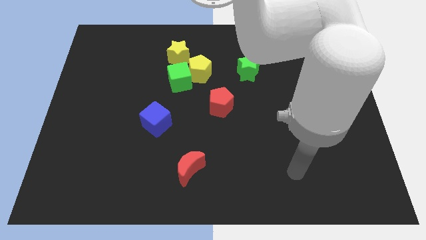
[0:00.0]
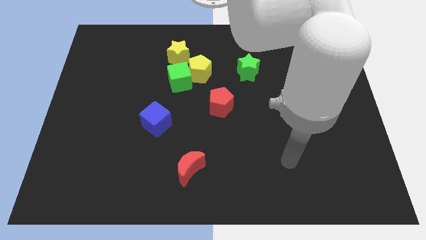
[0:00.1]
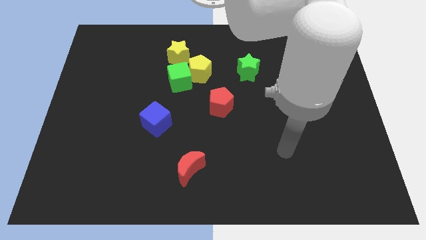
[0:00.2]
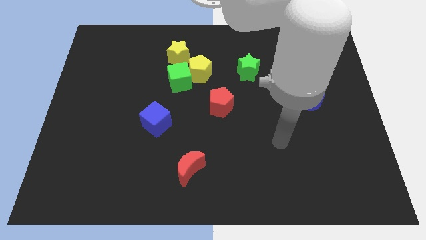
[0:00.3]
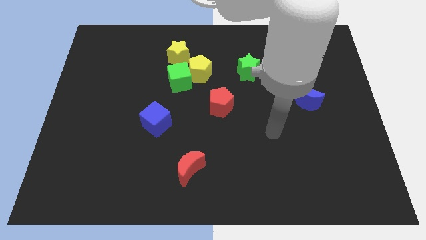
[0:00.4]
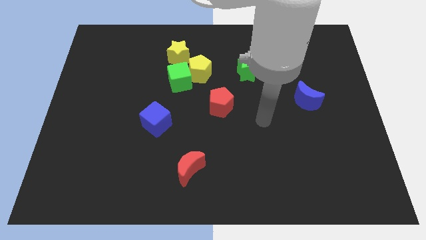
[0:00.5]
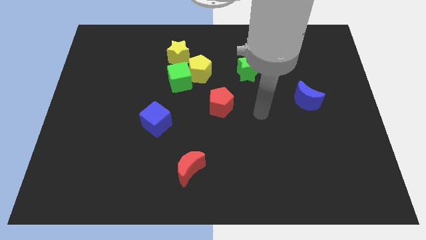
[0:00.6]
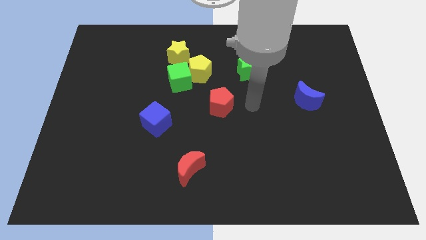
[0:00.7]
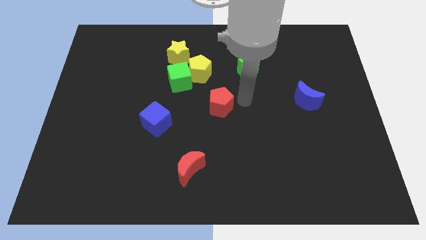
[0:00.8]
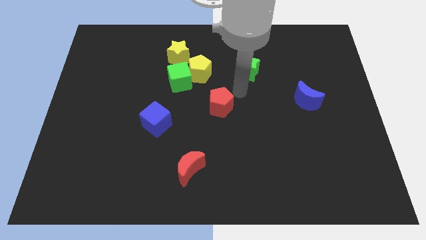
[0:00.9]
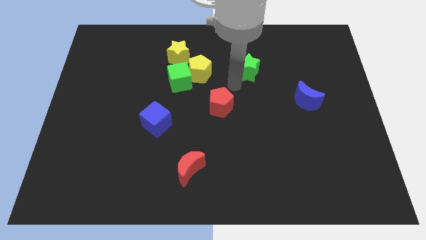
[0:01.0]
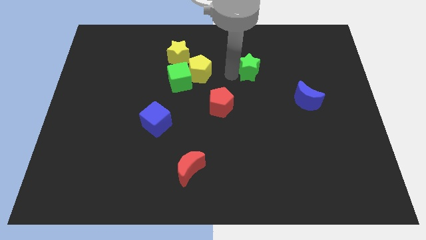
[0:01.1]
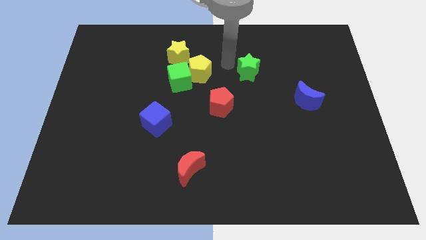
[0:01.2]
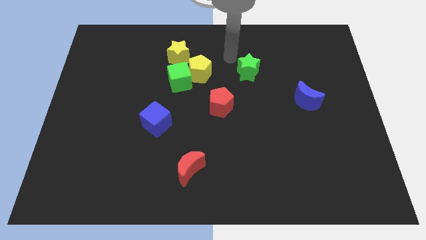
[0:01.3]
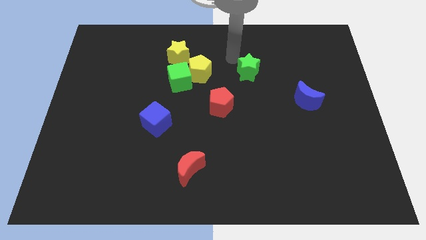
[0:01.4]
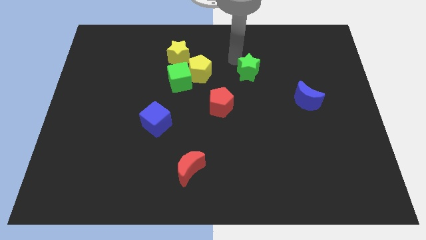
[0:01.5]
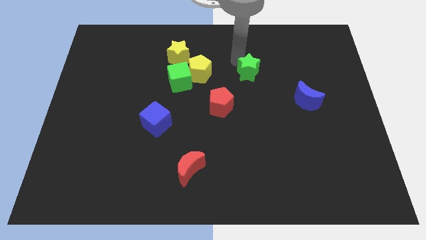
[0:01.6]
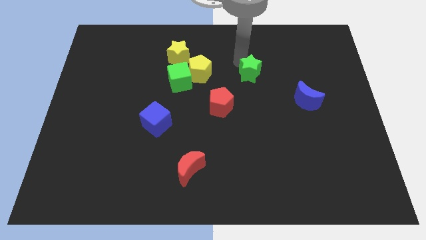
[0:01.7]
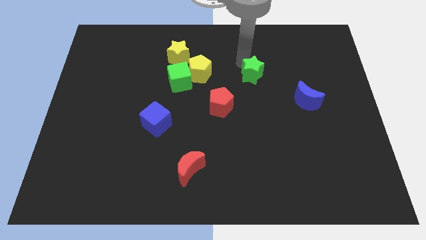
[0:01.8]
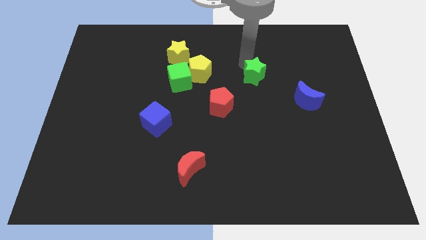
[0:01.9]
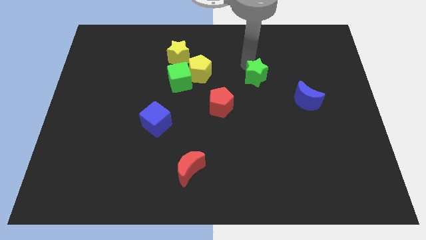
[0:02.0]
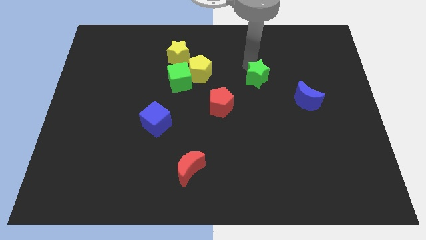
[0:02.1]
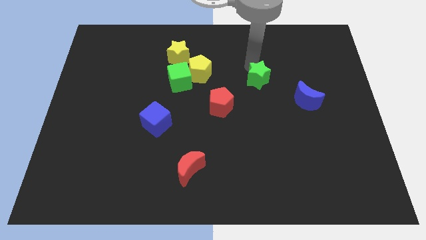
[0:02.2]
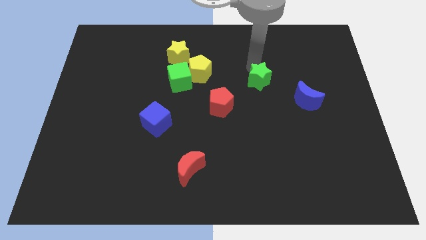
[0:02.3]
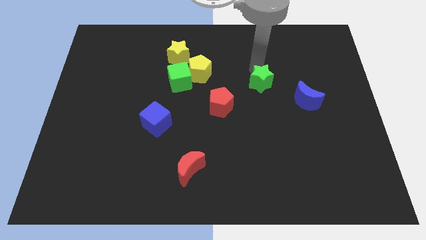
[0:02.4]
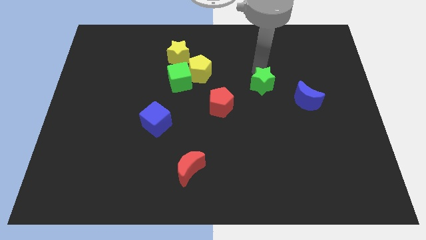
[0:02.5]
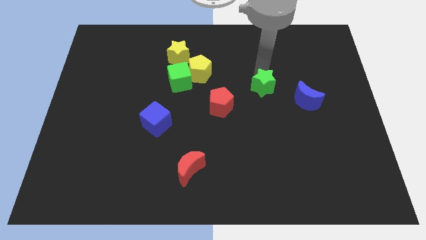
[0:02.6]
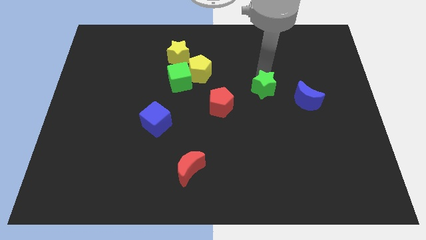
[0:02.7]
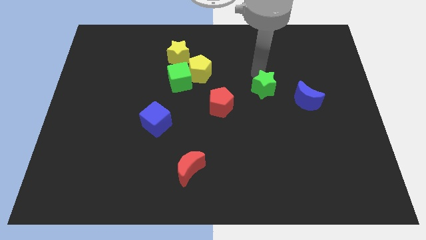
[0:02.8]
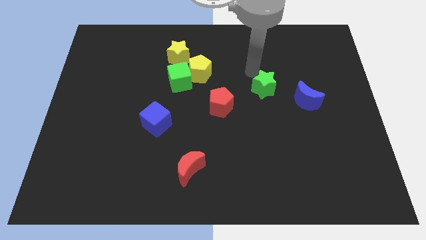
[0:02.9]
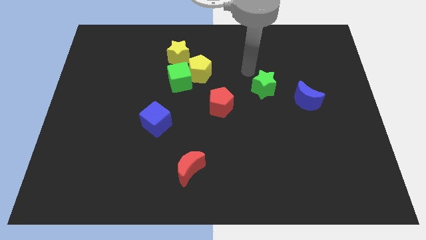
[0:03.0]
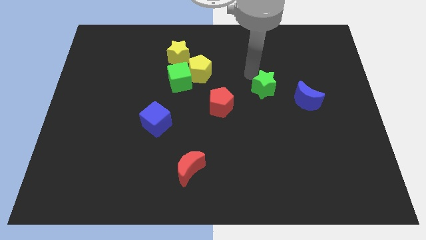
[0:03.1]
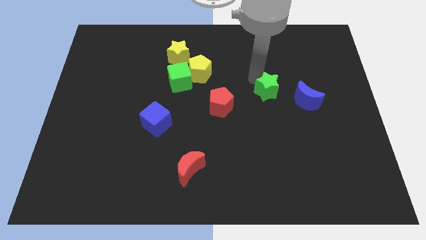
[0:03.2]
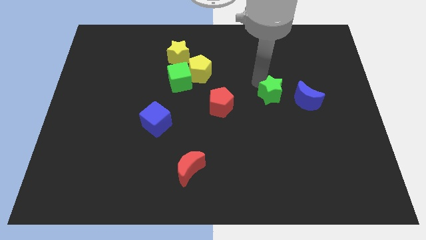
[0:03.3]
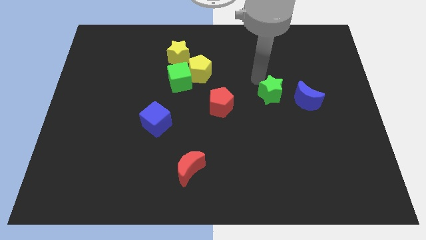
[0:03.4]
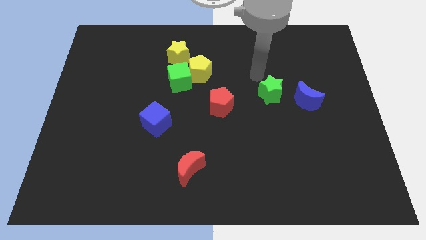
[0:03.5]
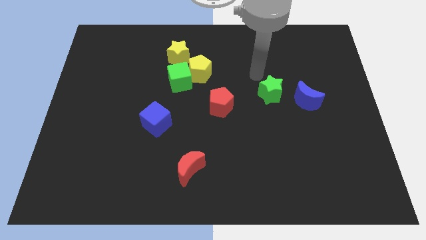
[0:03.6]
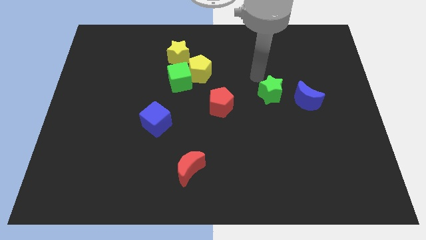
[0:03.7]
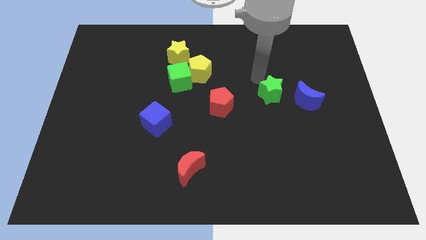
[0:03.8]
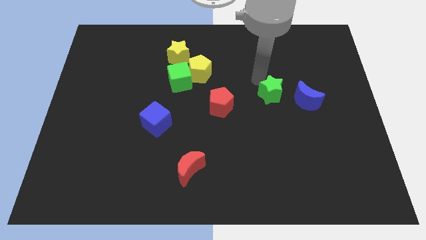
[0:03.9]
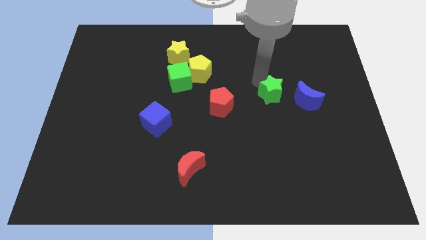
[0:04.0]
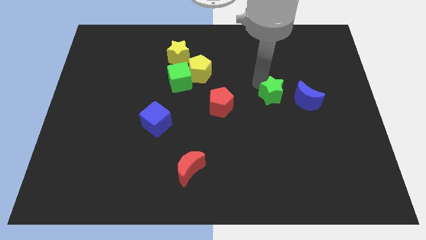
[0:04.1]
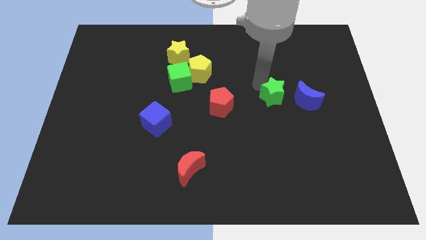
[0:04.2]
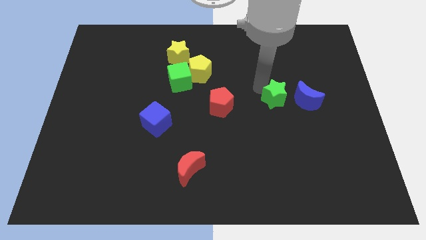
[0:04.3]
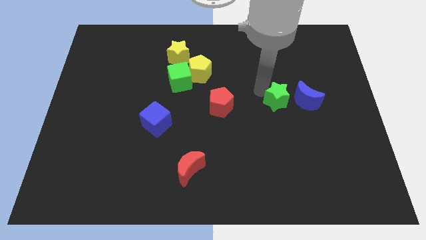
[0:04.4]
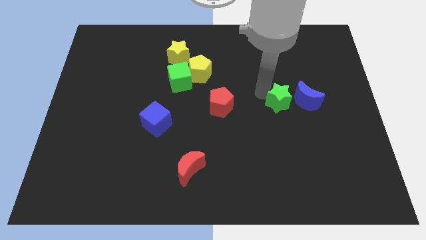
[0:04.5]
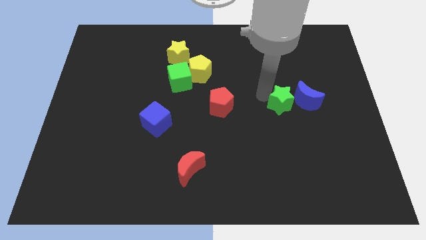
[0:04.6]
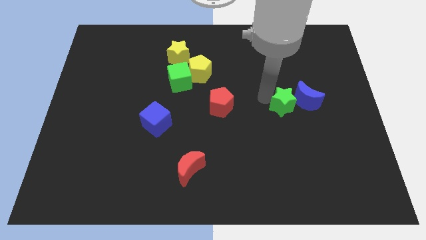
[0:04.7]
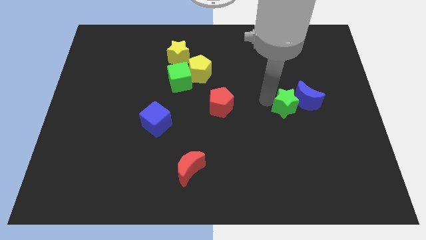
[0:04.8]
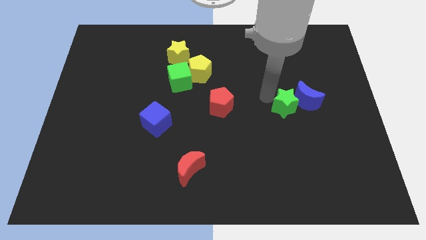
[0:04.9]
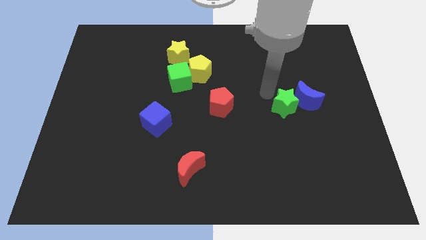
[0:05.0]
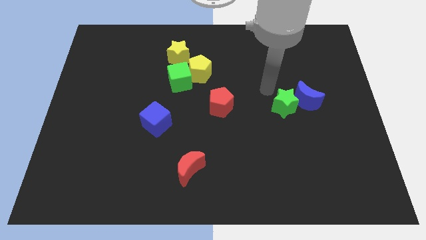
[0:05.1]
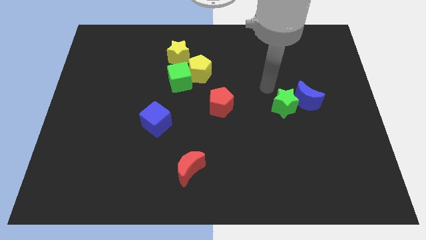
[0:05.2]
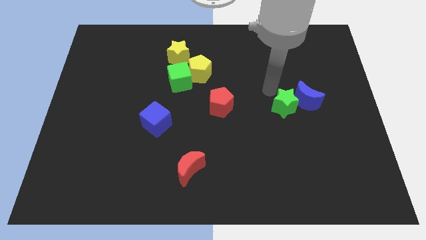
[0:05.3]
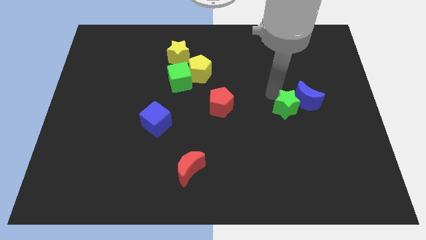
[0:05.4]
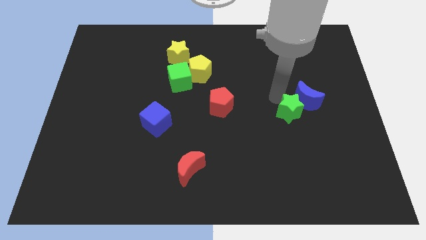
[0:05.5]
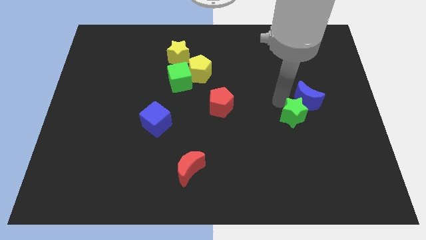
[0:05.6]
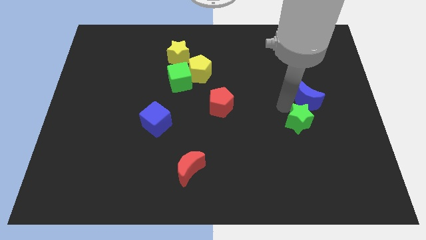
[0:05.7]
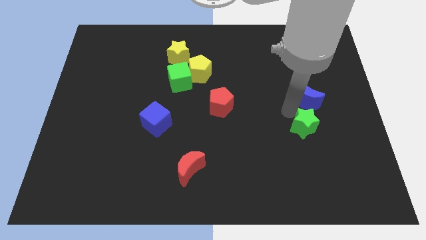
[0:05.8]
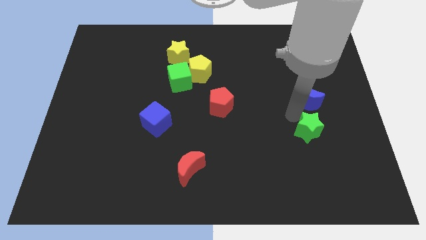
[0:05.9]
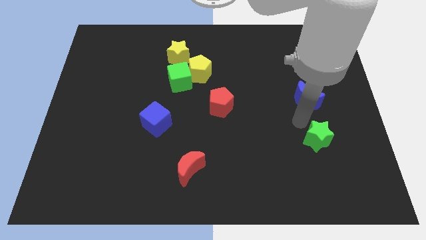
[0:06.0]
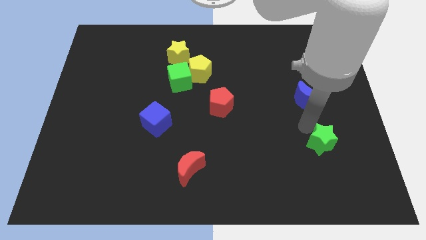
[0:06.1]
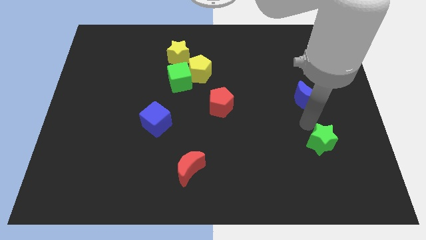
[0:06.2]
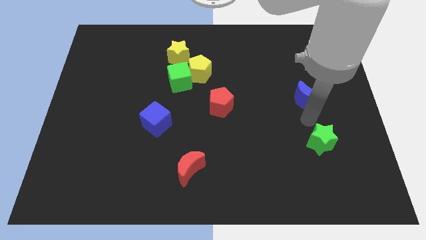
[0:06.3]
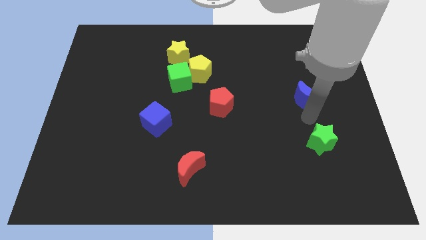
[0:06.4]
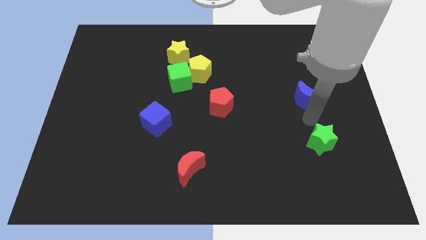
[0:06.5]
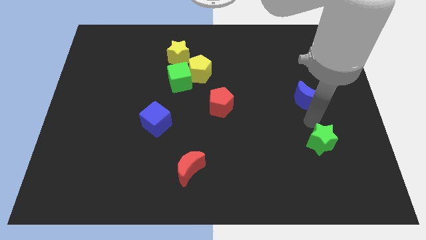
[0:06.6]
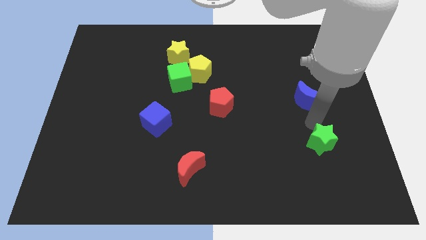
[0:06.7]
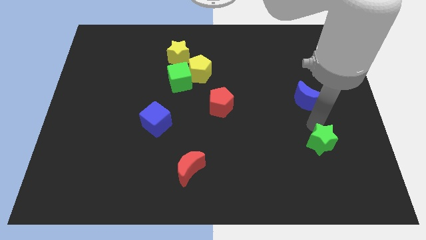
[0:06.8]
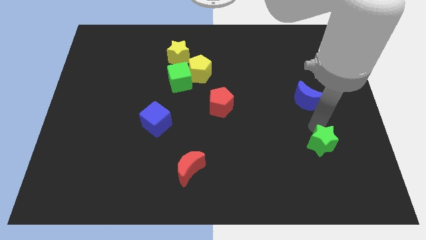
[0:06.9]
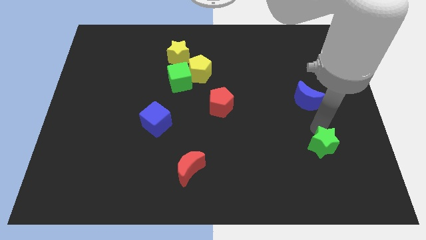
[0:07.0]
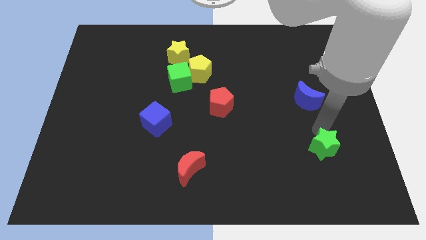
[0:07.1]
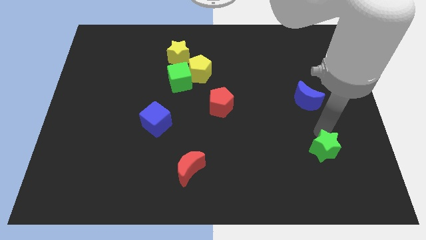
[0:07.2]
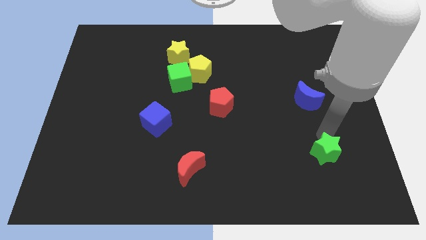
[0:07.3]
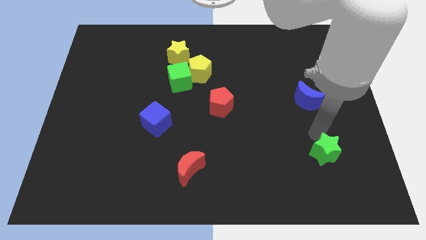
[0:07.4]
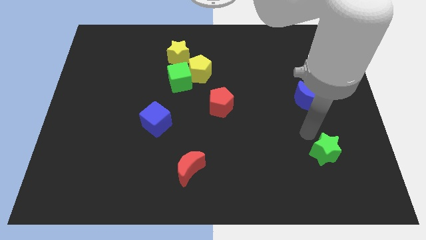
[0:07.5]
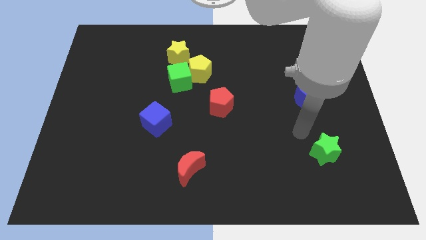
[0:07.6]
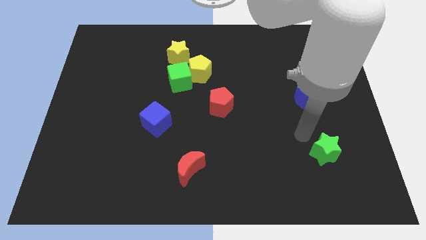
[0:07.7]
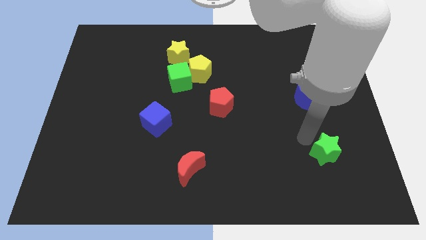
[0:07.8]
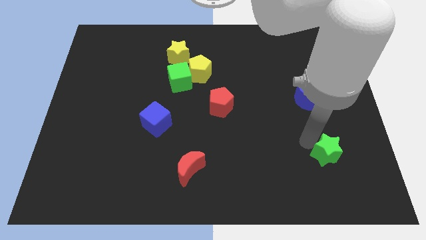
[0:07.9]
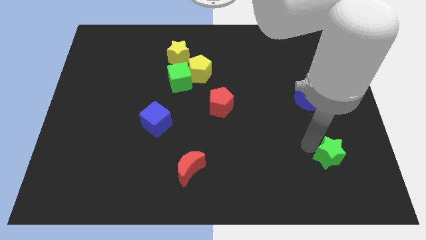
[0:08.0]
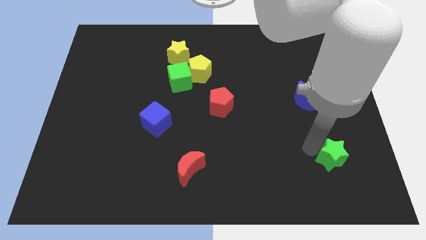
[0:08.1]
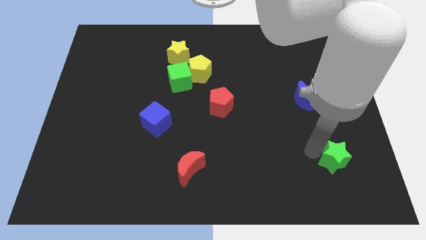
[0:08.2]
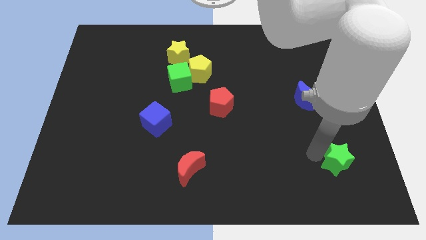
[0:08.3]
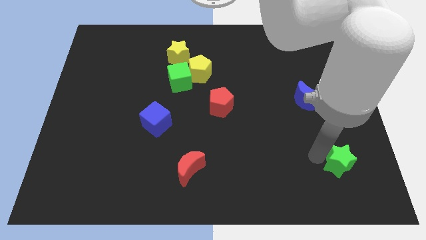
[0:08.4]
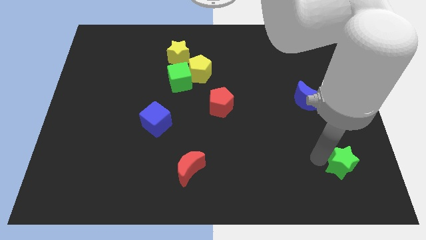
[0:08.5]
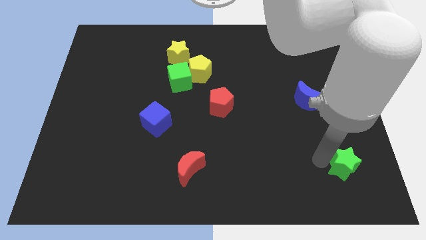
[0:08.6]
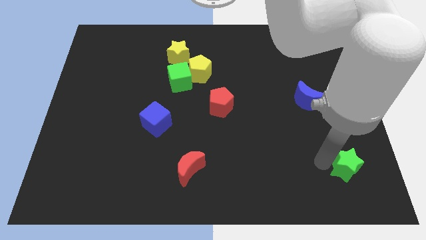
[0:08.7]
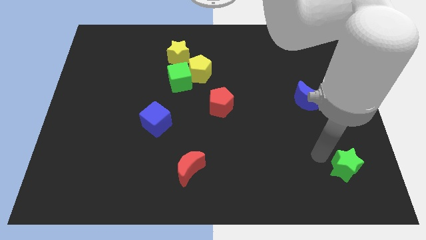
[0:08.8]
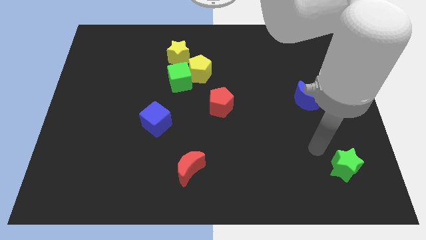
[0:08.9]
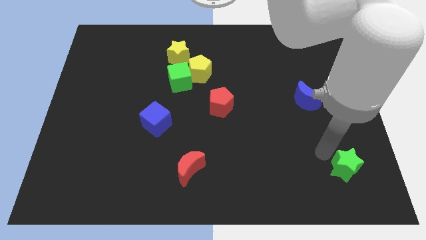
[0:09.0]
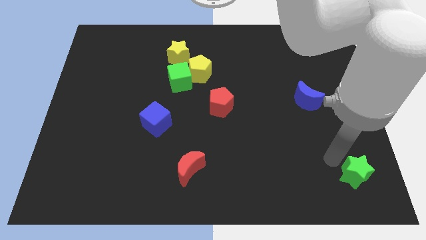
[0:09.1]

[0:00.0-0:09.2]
move the green star to the lower right corner
